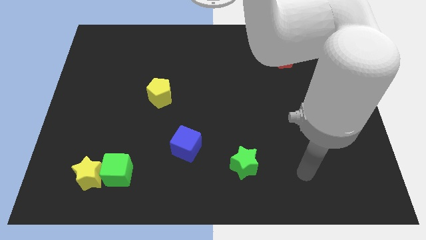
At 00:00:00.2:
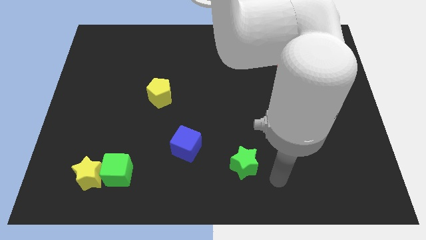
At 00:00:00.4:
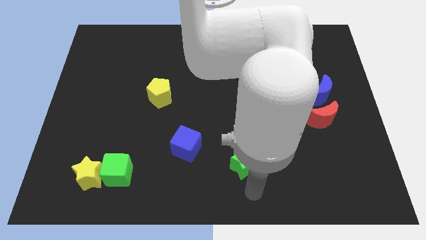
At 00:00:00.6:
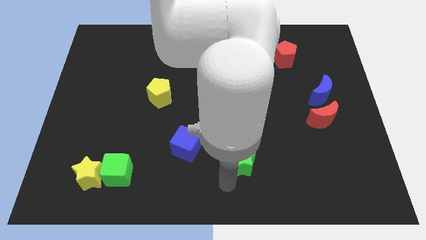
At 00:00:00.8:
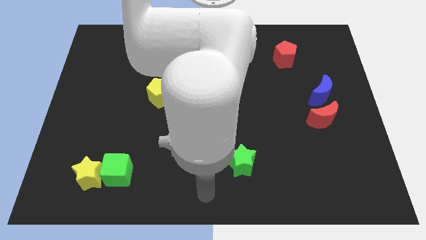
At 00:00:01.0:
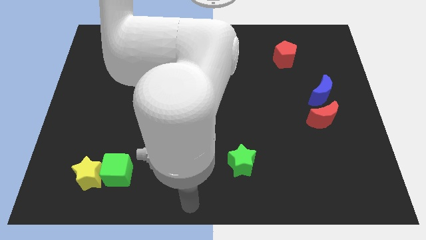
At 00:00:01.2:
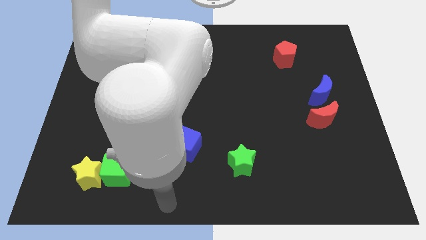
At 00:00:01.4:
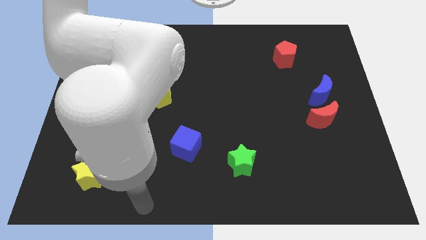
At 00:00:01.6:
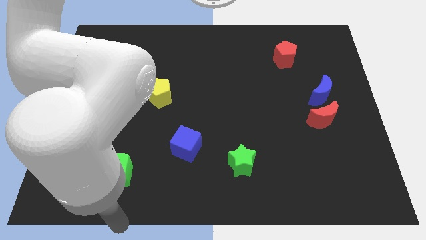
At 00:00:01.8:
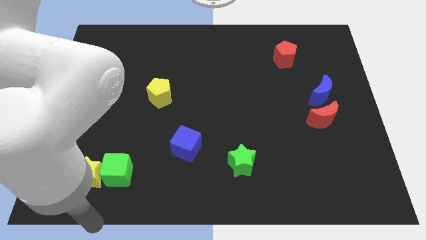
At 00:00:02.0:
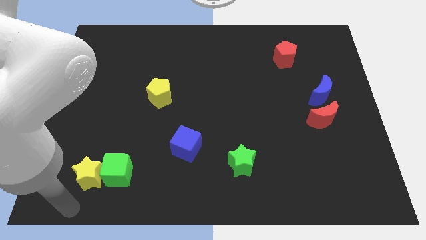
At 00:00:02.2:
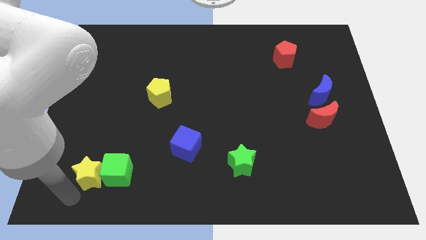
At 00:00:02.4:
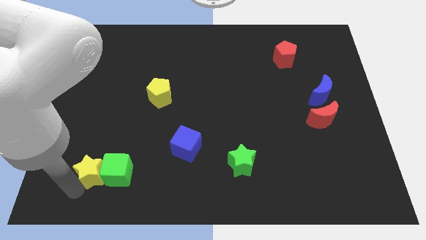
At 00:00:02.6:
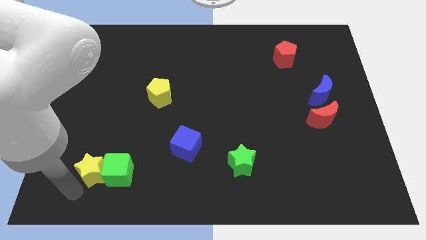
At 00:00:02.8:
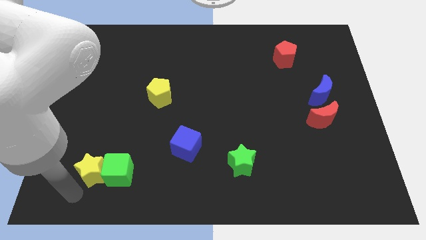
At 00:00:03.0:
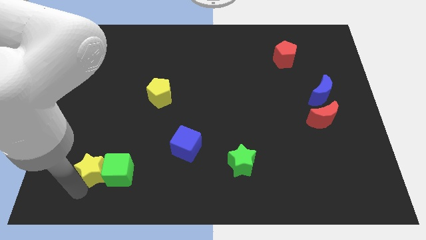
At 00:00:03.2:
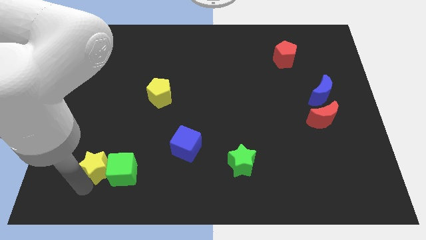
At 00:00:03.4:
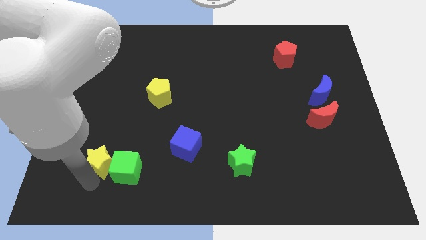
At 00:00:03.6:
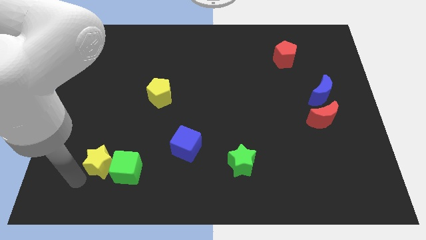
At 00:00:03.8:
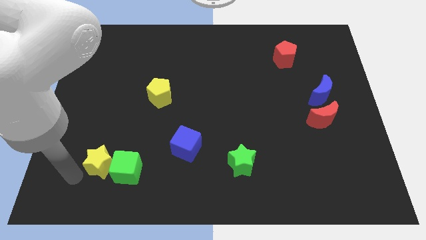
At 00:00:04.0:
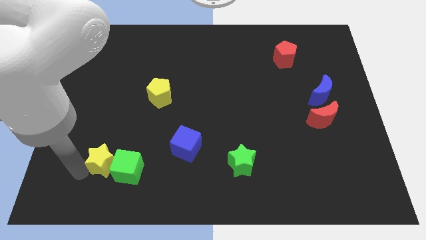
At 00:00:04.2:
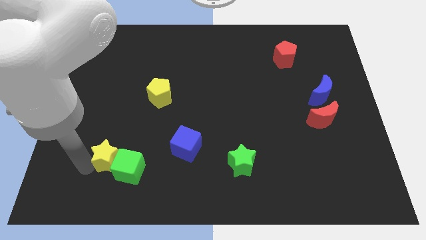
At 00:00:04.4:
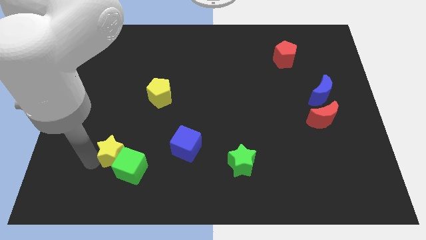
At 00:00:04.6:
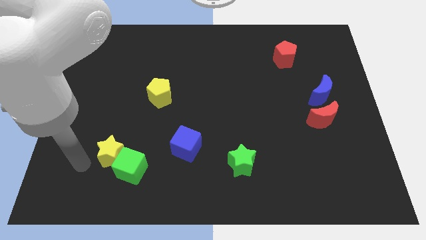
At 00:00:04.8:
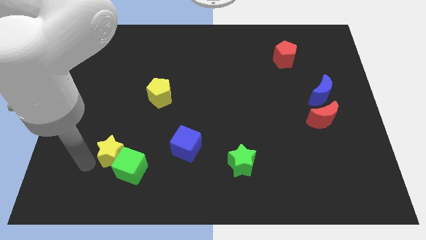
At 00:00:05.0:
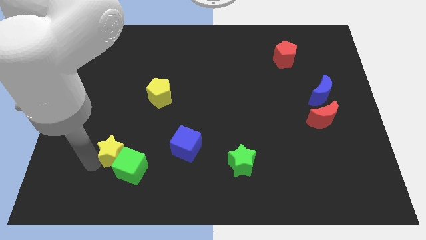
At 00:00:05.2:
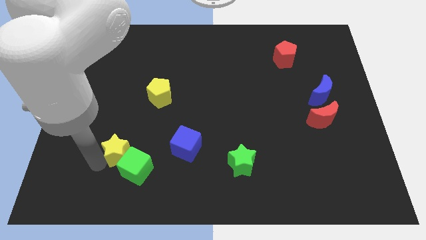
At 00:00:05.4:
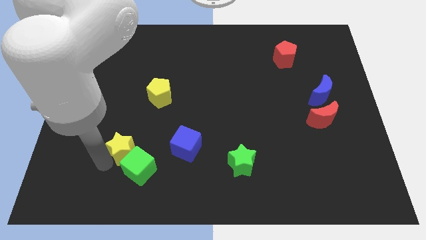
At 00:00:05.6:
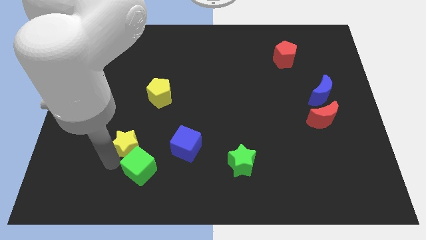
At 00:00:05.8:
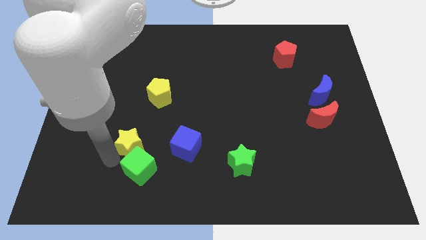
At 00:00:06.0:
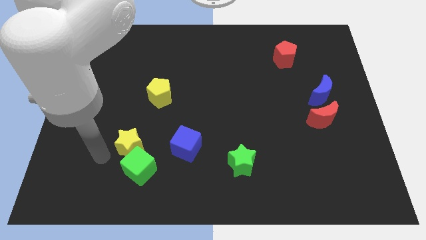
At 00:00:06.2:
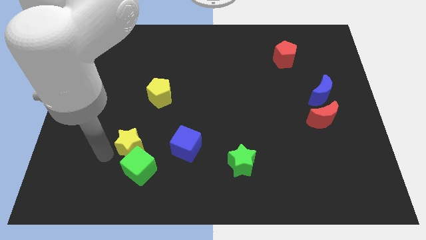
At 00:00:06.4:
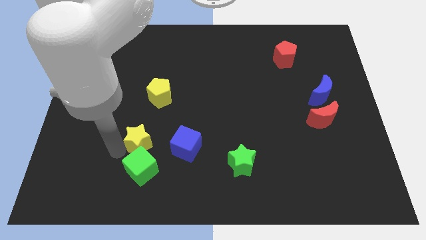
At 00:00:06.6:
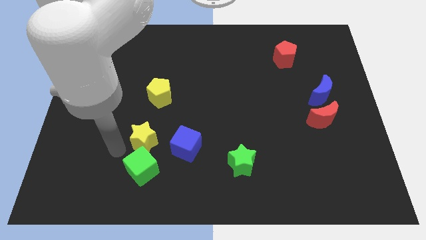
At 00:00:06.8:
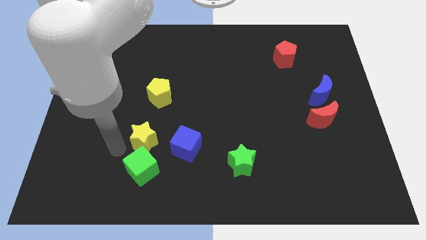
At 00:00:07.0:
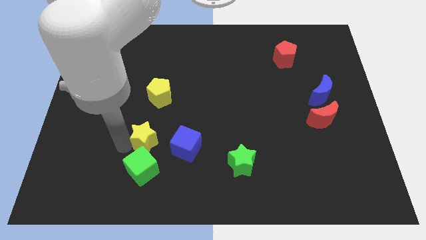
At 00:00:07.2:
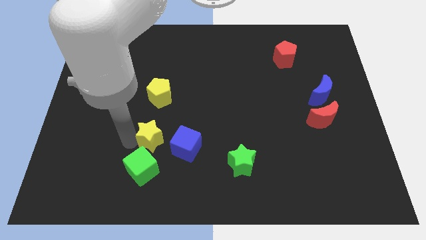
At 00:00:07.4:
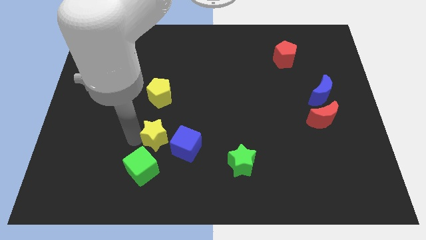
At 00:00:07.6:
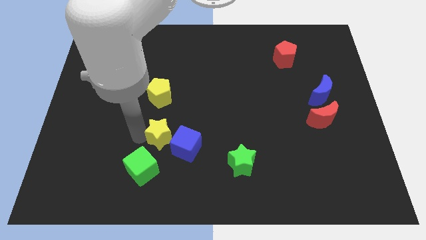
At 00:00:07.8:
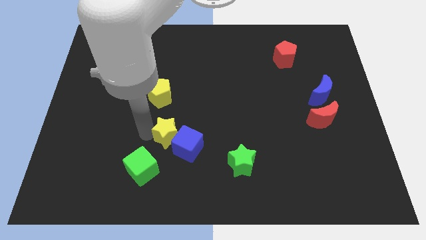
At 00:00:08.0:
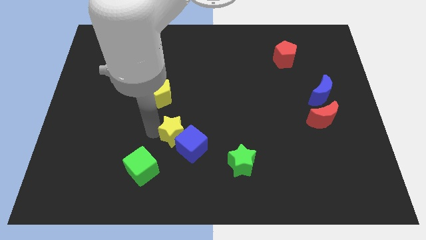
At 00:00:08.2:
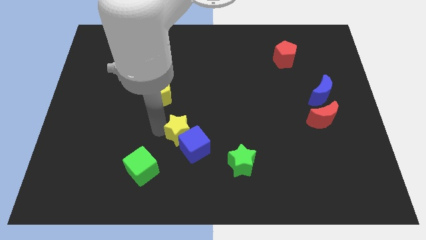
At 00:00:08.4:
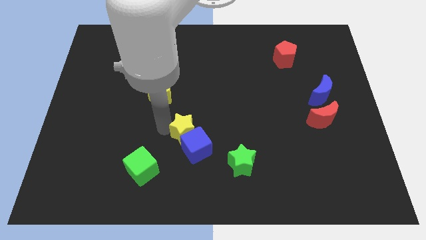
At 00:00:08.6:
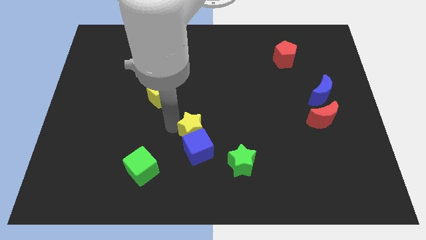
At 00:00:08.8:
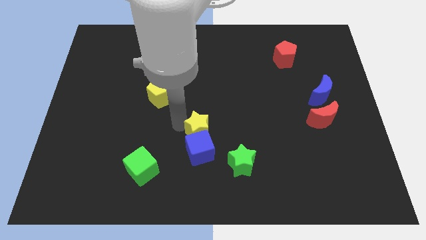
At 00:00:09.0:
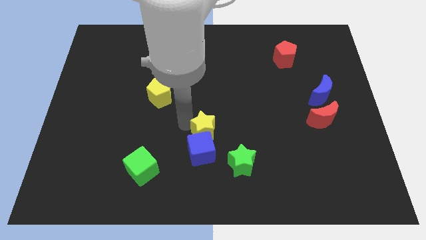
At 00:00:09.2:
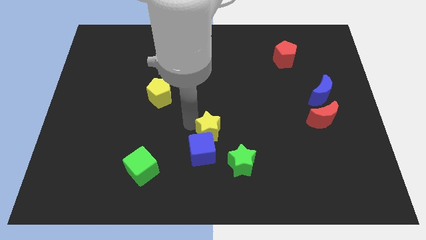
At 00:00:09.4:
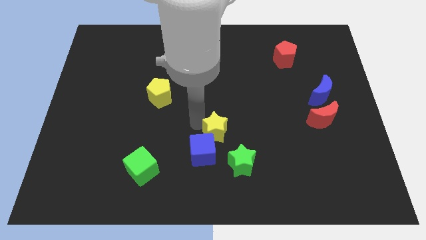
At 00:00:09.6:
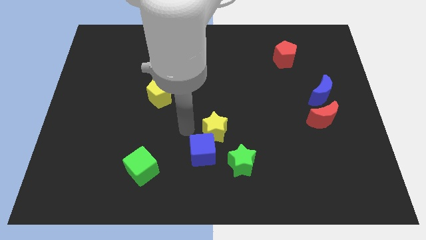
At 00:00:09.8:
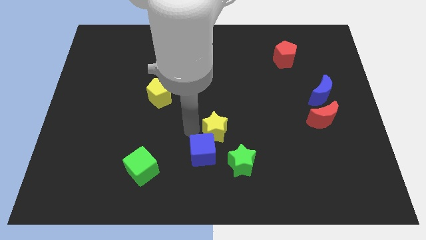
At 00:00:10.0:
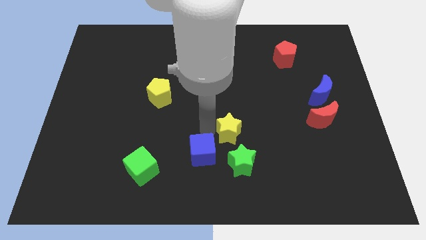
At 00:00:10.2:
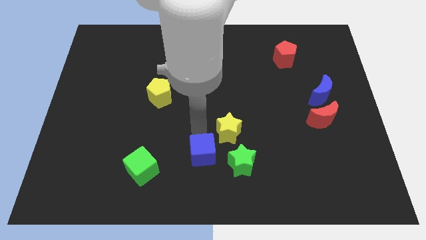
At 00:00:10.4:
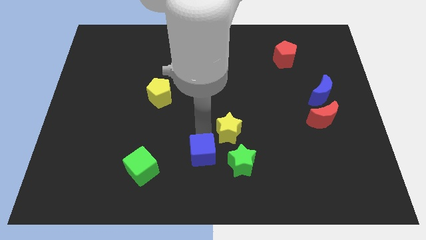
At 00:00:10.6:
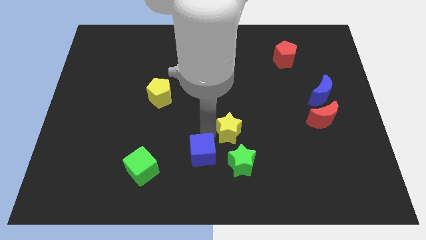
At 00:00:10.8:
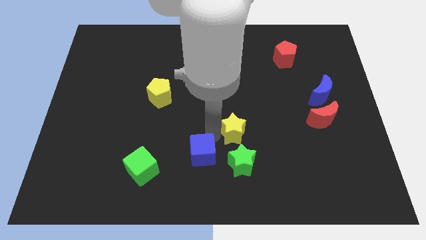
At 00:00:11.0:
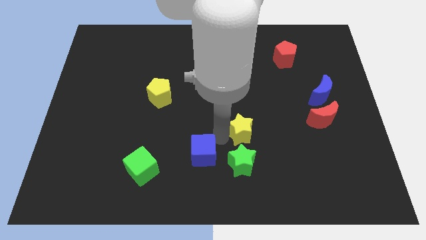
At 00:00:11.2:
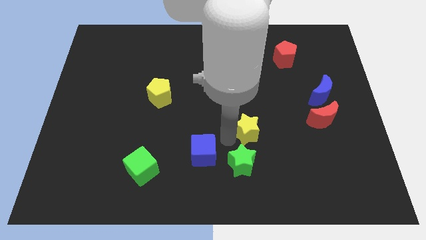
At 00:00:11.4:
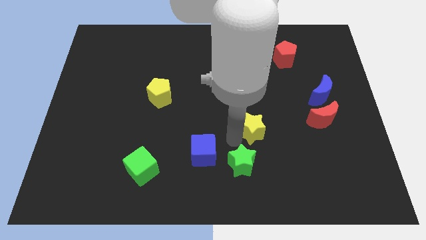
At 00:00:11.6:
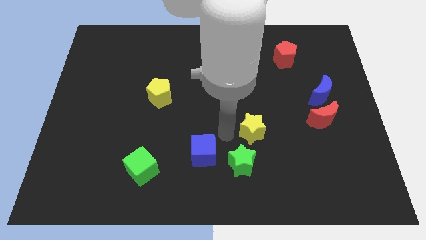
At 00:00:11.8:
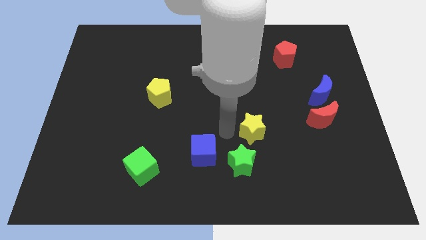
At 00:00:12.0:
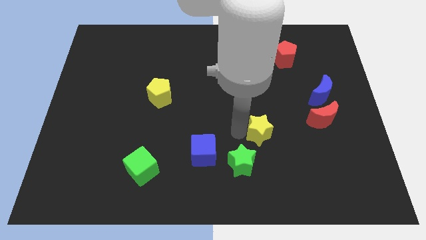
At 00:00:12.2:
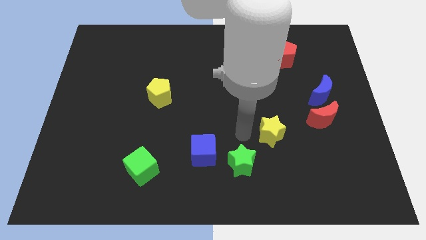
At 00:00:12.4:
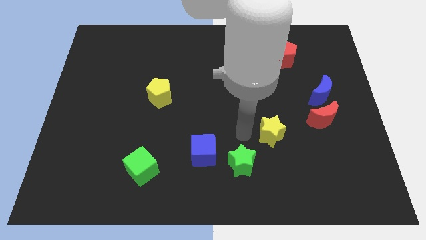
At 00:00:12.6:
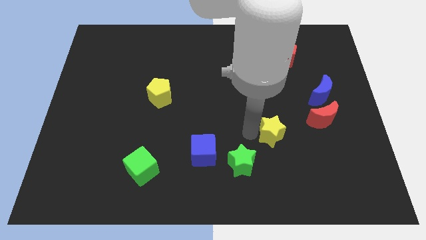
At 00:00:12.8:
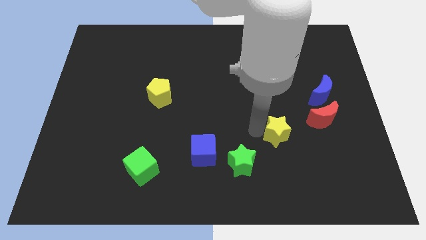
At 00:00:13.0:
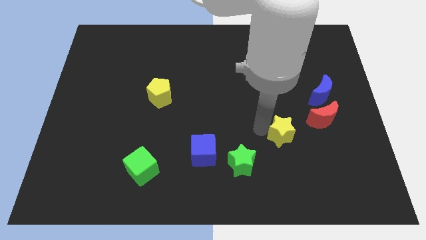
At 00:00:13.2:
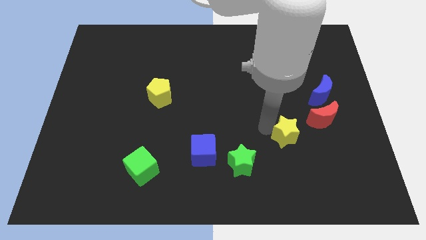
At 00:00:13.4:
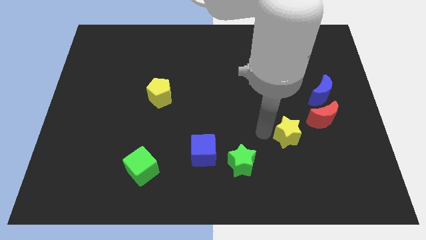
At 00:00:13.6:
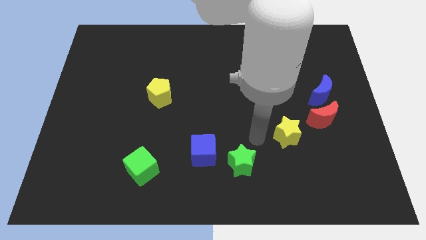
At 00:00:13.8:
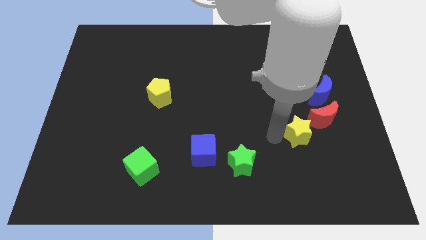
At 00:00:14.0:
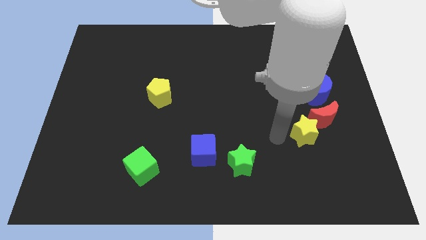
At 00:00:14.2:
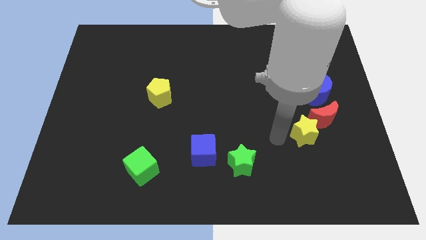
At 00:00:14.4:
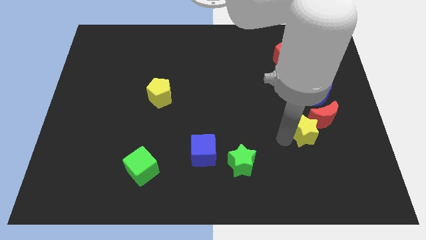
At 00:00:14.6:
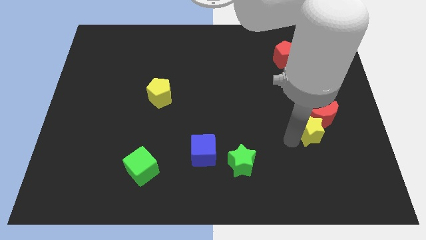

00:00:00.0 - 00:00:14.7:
slide the yellow star to the bottom of the blue moon
